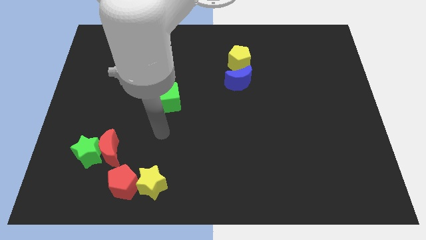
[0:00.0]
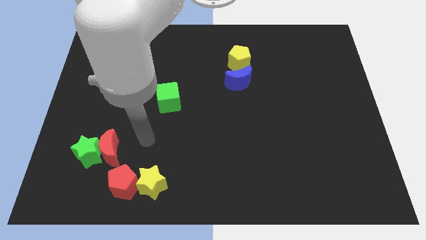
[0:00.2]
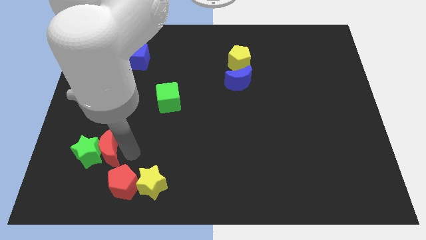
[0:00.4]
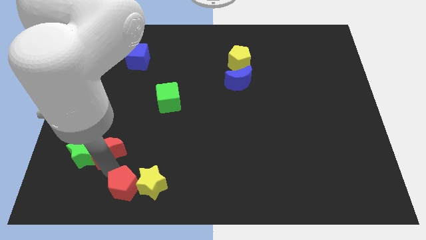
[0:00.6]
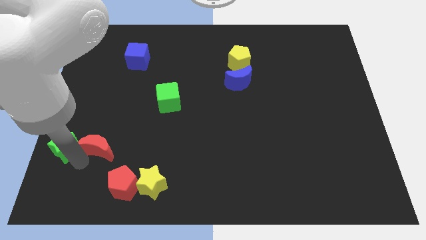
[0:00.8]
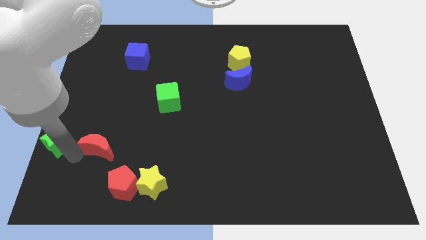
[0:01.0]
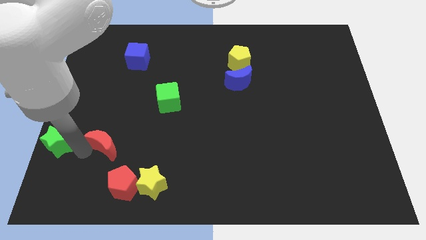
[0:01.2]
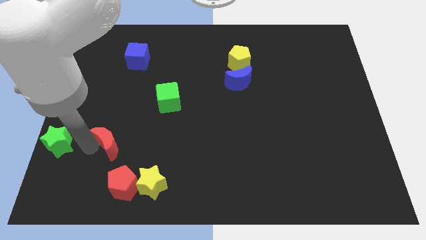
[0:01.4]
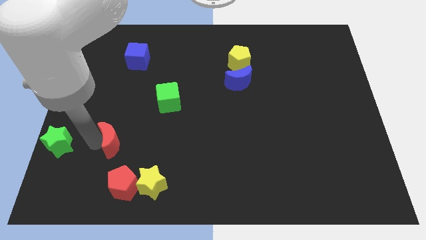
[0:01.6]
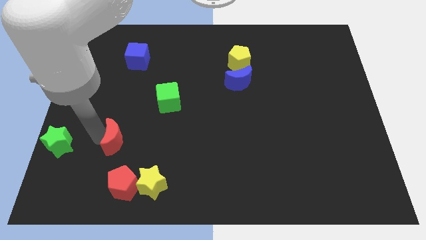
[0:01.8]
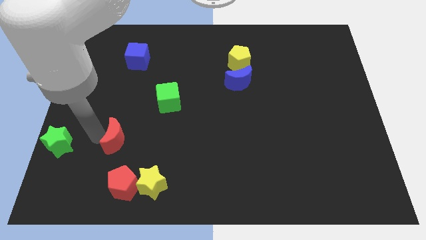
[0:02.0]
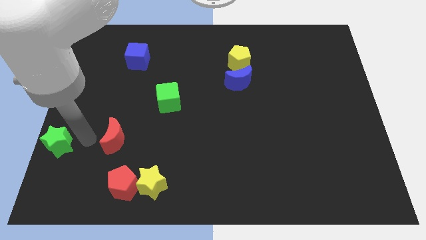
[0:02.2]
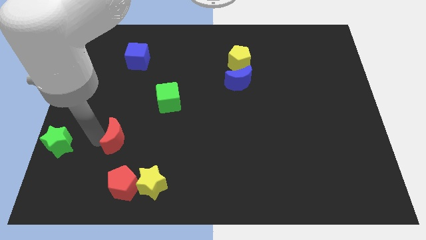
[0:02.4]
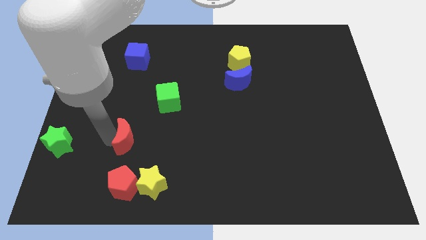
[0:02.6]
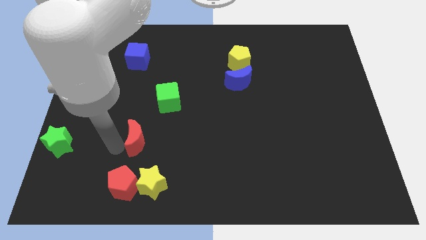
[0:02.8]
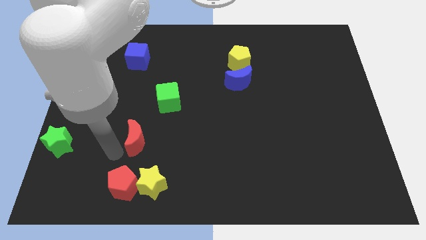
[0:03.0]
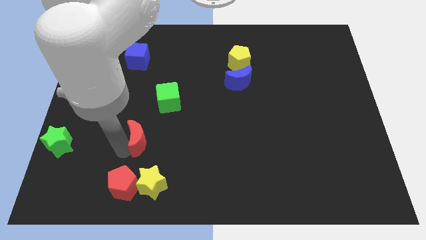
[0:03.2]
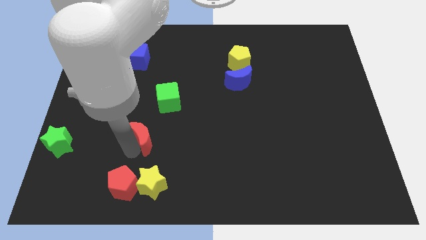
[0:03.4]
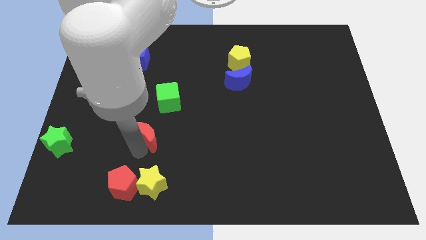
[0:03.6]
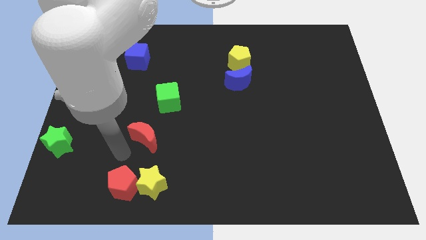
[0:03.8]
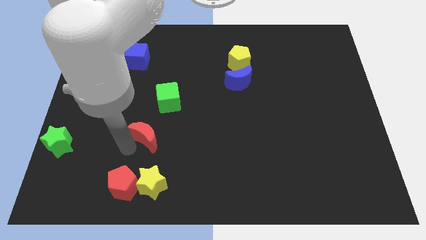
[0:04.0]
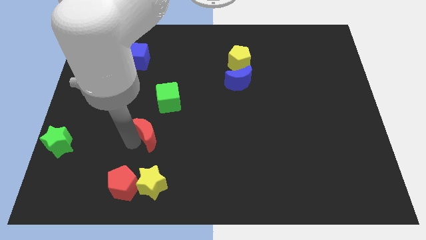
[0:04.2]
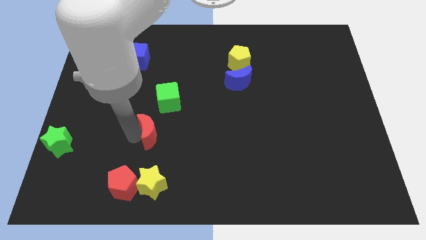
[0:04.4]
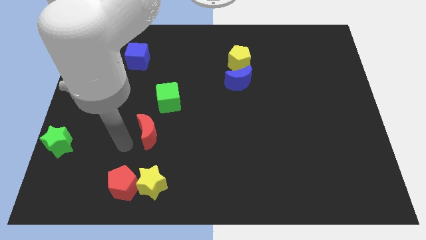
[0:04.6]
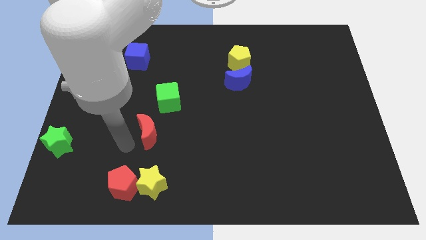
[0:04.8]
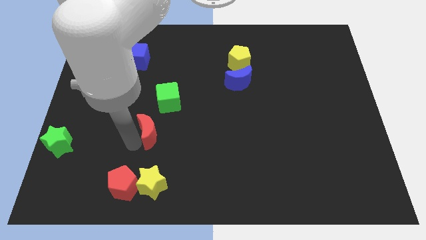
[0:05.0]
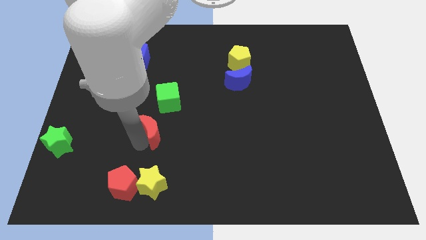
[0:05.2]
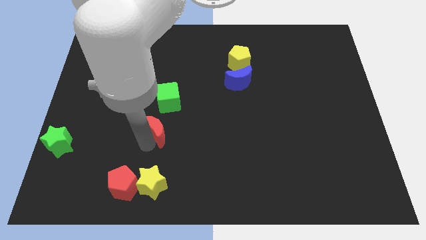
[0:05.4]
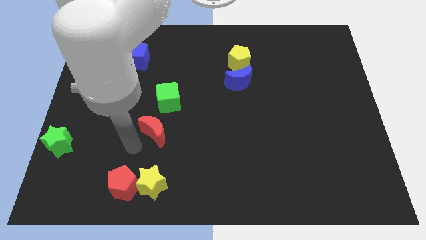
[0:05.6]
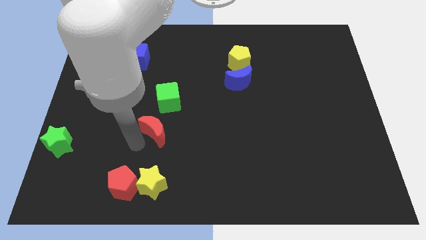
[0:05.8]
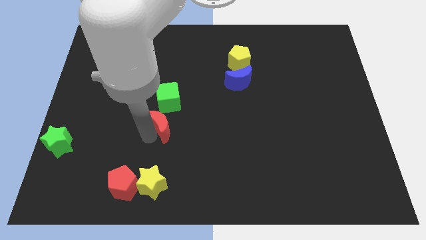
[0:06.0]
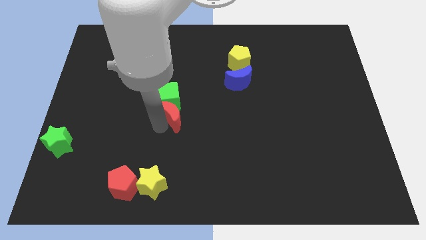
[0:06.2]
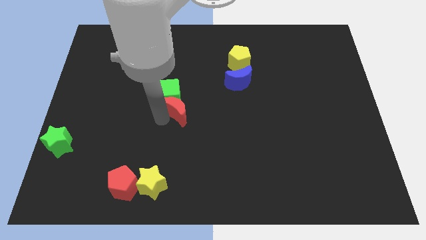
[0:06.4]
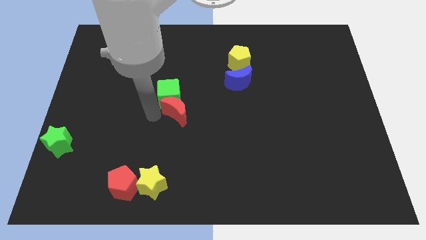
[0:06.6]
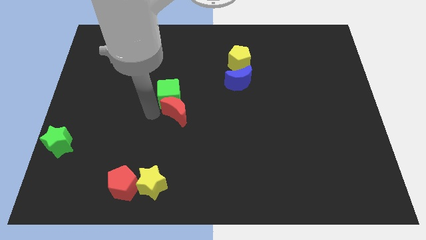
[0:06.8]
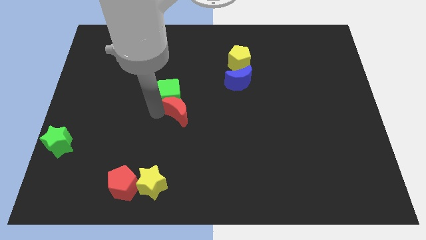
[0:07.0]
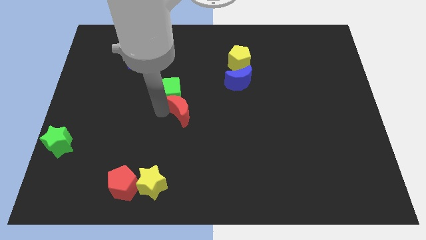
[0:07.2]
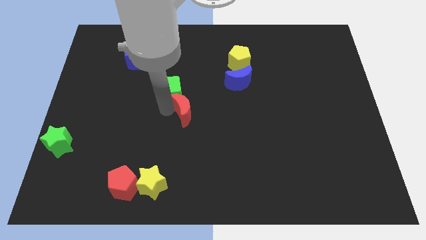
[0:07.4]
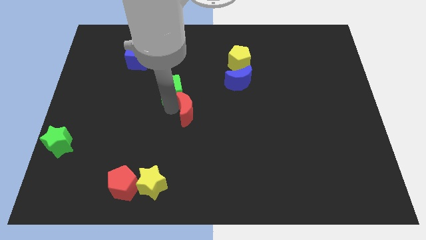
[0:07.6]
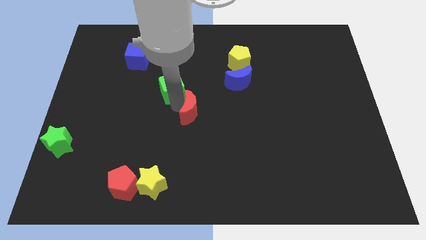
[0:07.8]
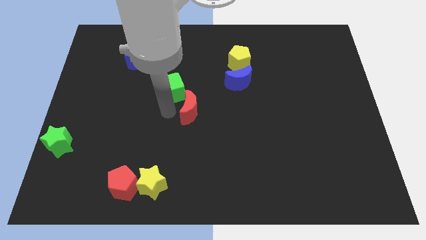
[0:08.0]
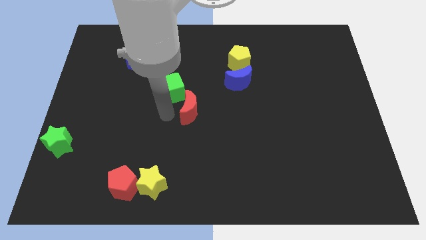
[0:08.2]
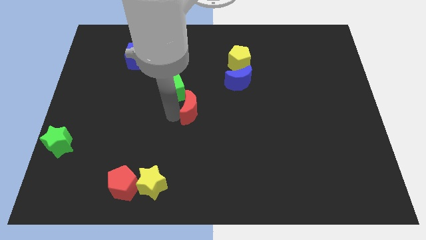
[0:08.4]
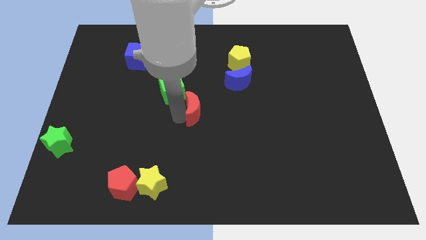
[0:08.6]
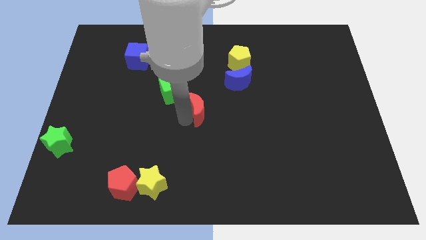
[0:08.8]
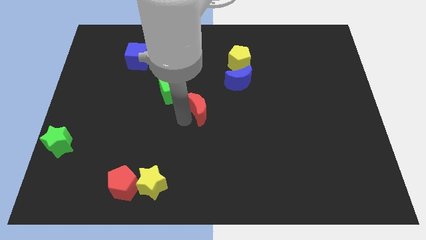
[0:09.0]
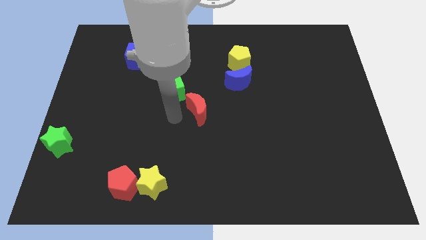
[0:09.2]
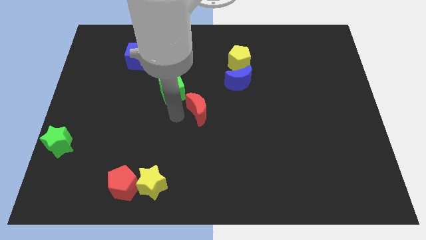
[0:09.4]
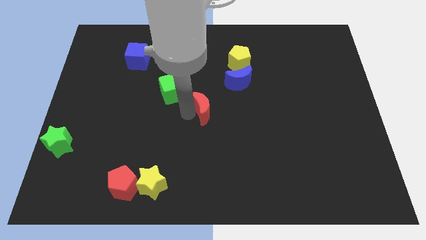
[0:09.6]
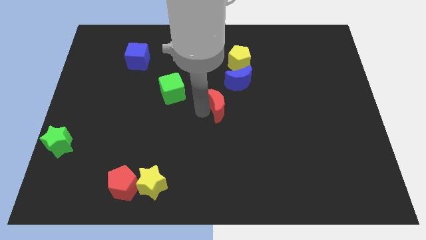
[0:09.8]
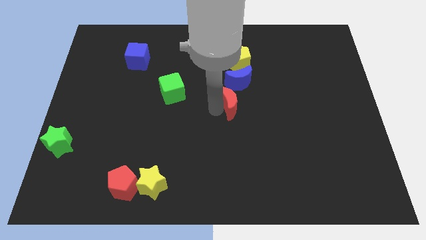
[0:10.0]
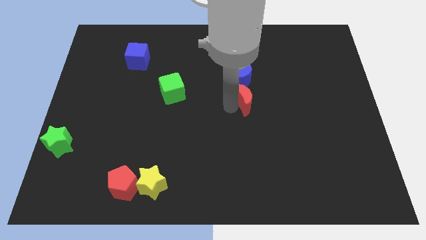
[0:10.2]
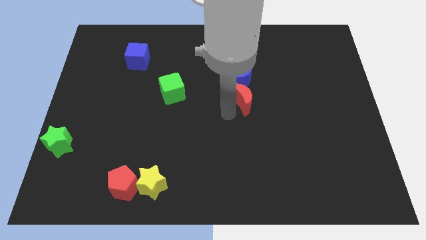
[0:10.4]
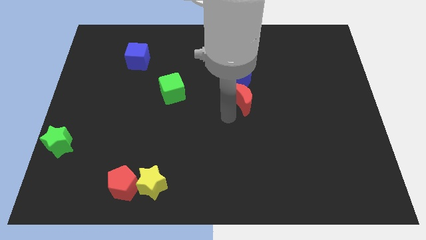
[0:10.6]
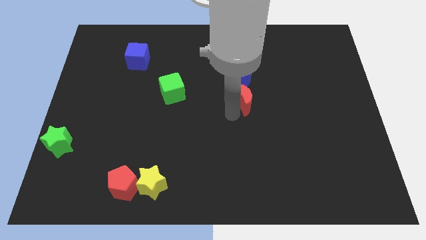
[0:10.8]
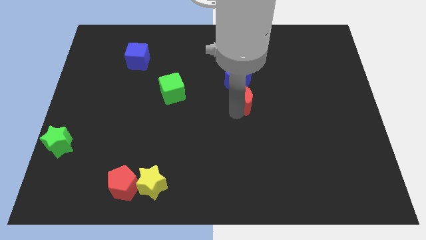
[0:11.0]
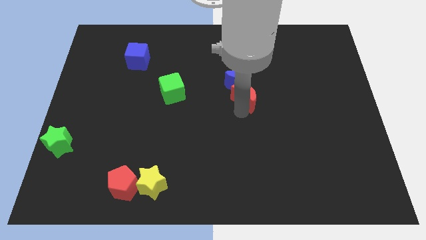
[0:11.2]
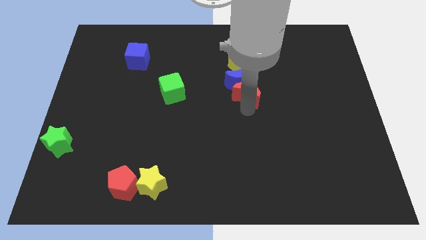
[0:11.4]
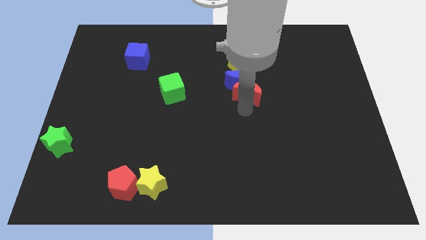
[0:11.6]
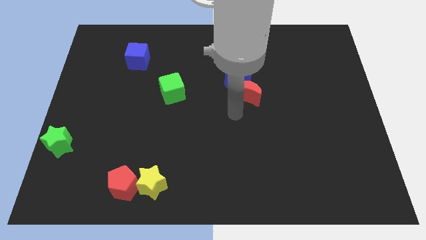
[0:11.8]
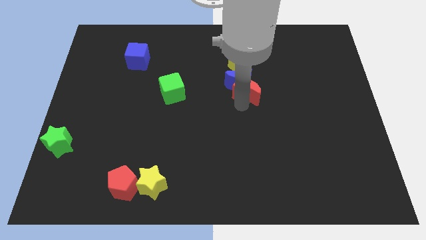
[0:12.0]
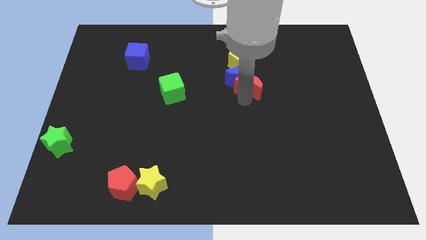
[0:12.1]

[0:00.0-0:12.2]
move the red moon to the bottom right side of the yellow pentagon

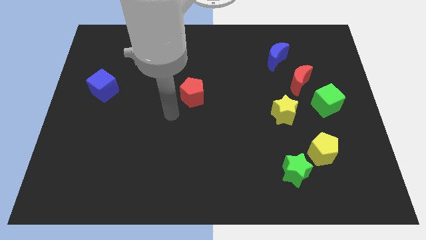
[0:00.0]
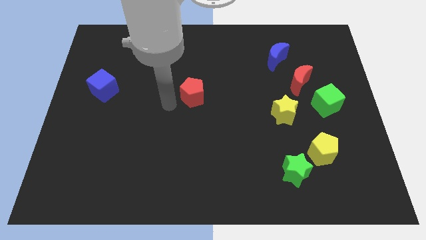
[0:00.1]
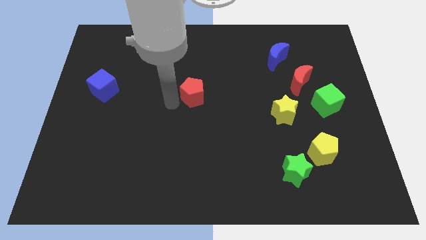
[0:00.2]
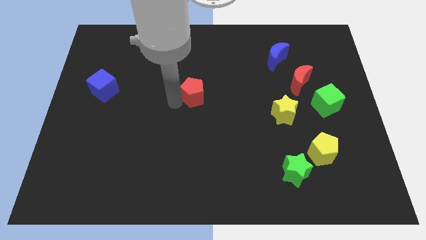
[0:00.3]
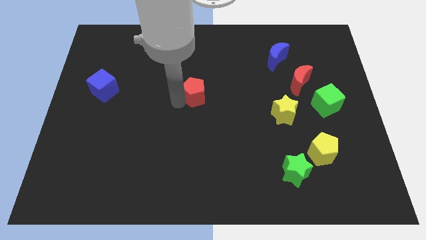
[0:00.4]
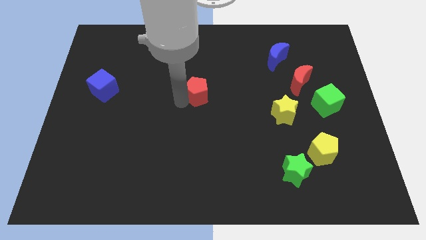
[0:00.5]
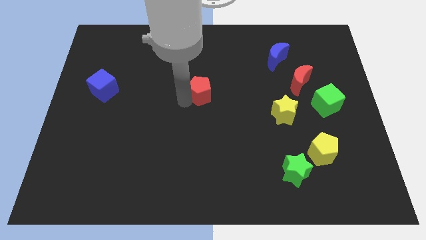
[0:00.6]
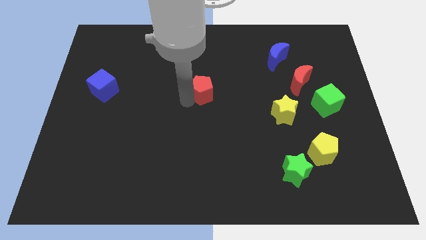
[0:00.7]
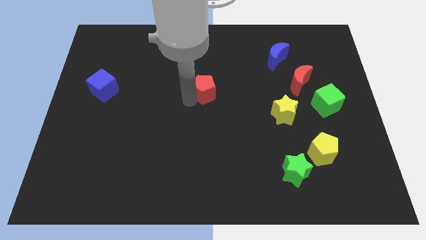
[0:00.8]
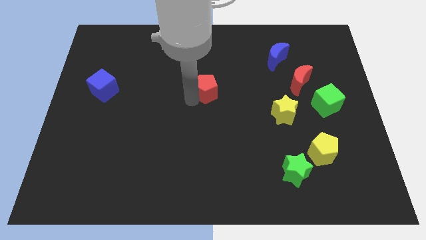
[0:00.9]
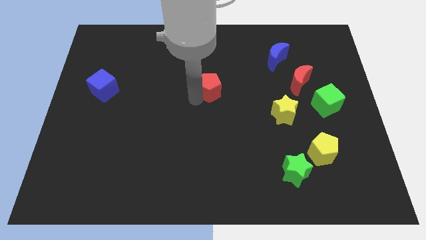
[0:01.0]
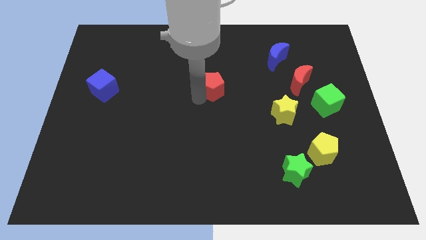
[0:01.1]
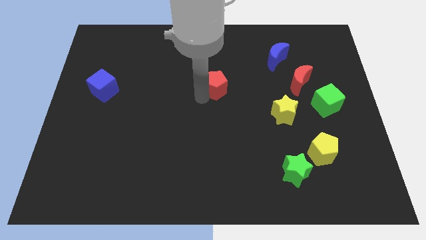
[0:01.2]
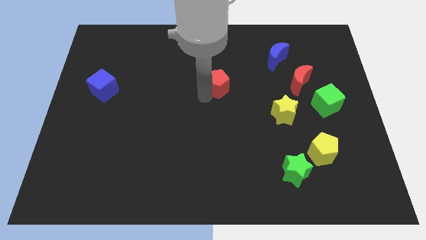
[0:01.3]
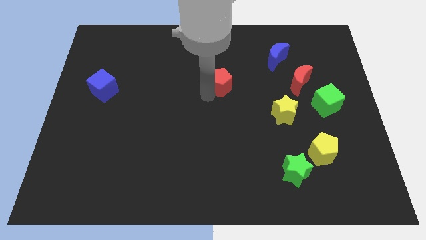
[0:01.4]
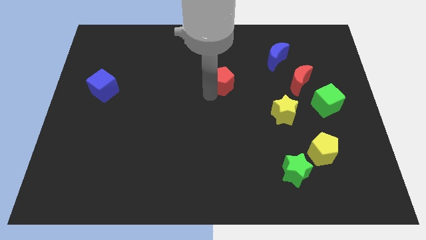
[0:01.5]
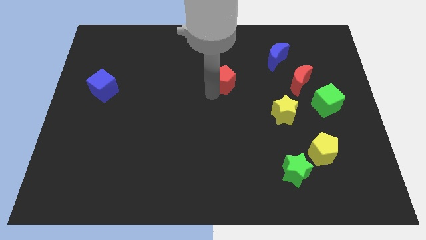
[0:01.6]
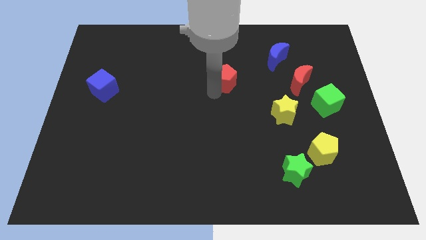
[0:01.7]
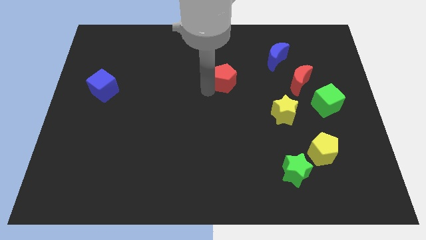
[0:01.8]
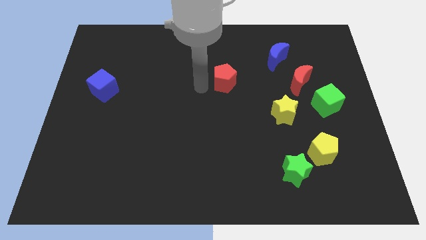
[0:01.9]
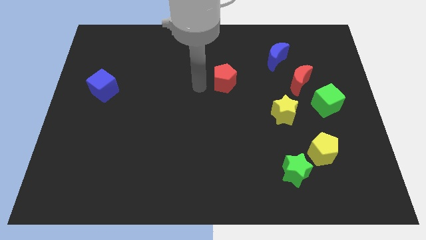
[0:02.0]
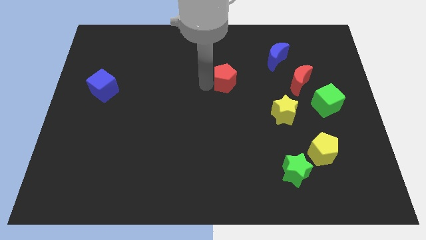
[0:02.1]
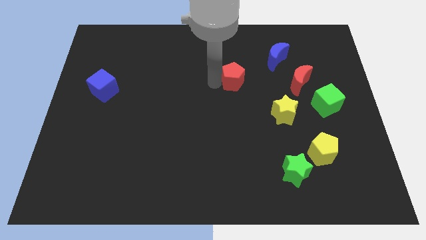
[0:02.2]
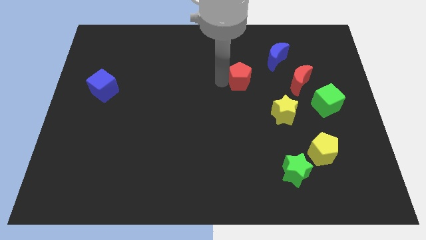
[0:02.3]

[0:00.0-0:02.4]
push the red pentagon diagonally down and to the left of the blue moon
